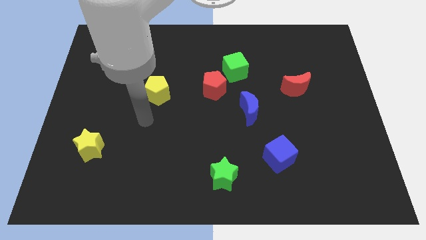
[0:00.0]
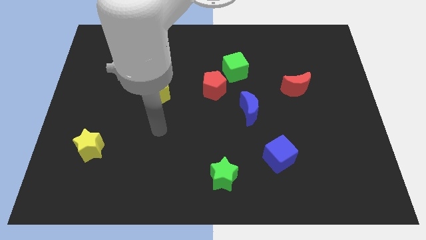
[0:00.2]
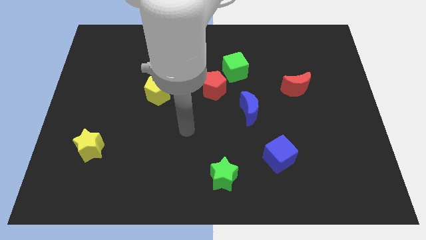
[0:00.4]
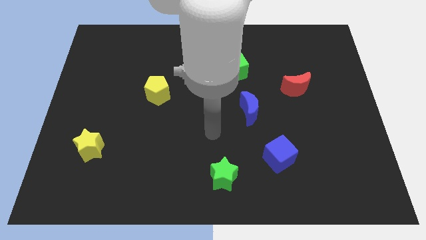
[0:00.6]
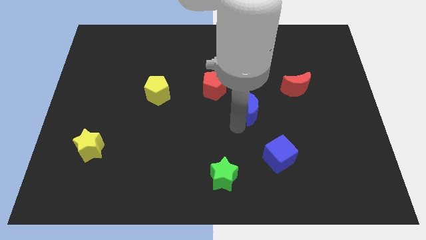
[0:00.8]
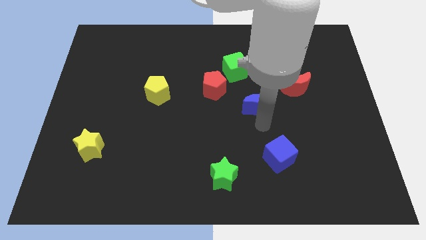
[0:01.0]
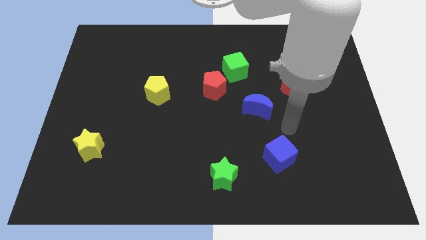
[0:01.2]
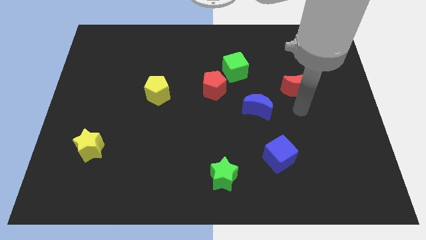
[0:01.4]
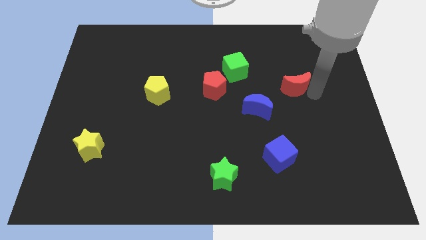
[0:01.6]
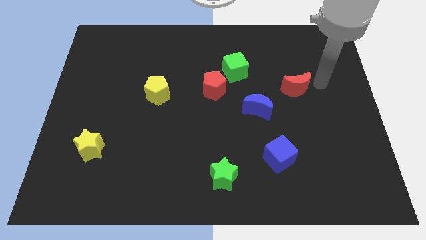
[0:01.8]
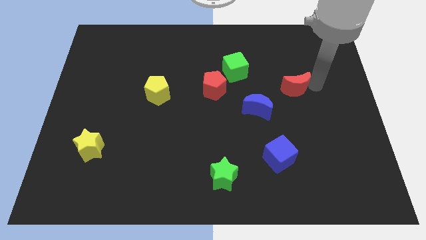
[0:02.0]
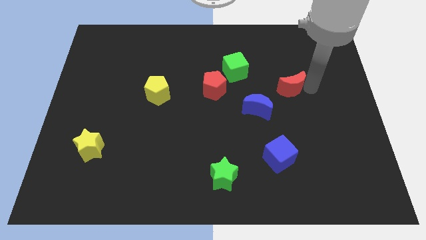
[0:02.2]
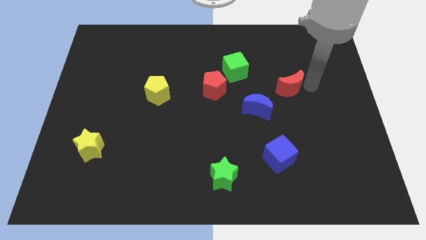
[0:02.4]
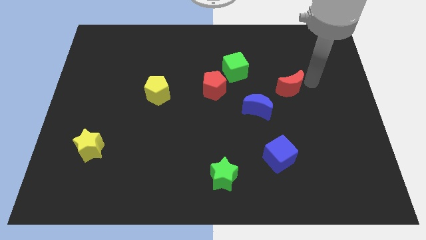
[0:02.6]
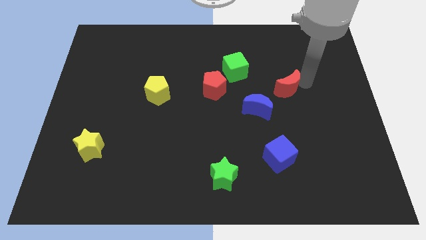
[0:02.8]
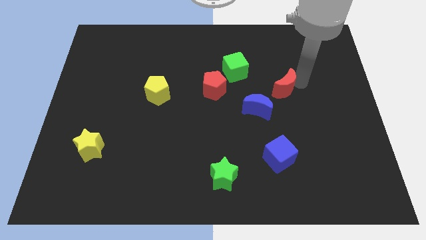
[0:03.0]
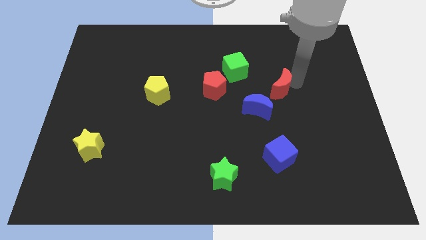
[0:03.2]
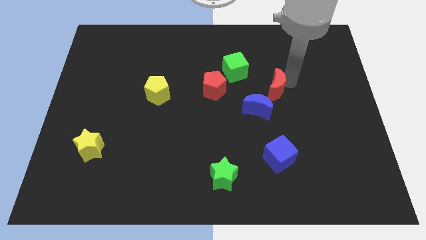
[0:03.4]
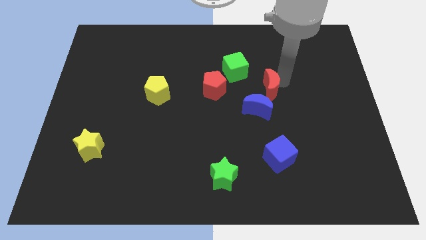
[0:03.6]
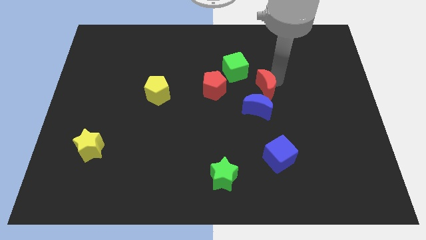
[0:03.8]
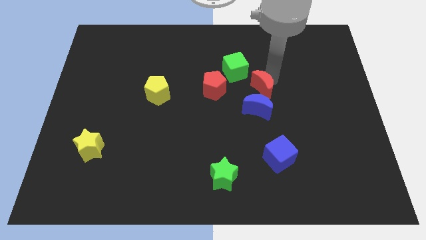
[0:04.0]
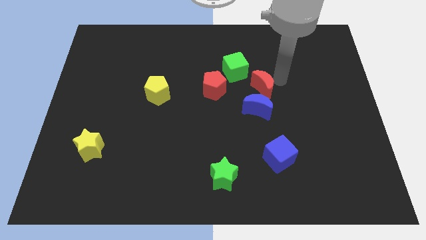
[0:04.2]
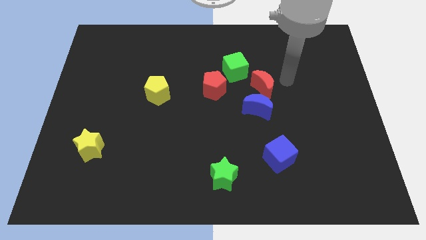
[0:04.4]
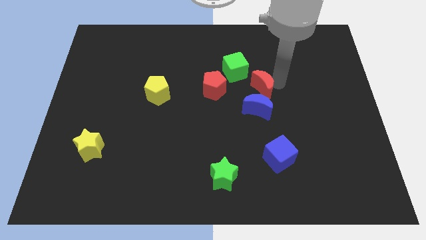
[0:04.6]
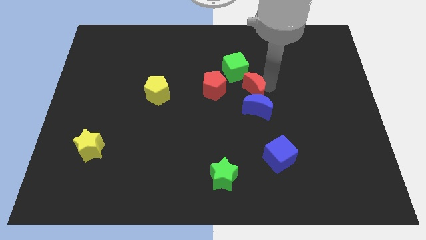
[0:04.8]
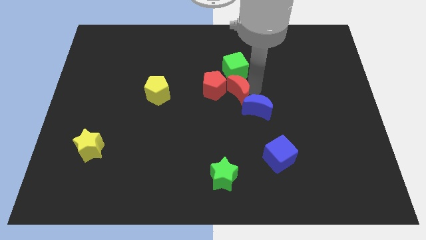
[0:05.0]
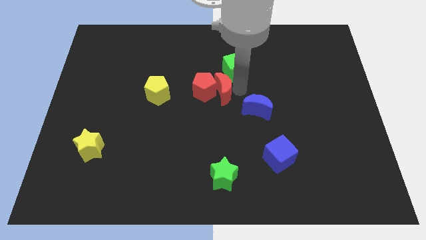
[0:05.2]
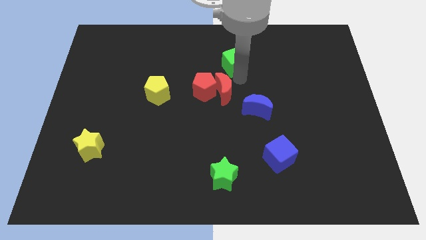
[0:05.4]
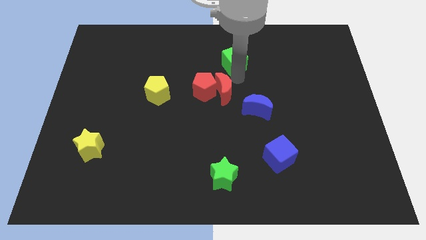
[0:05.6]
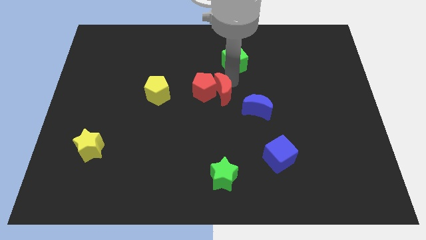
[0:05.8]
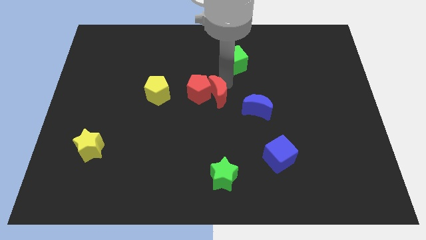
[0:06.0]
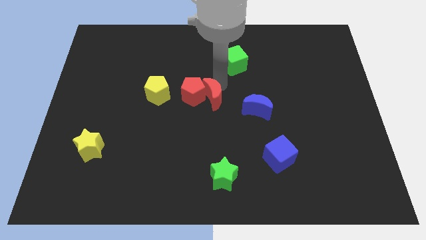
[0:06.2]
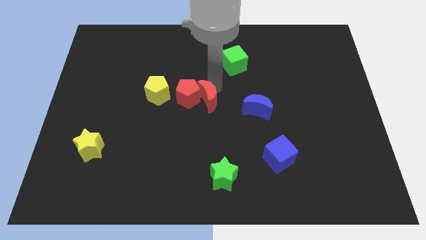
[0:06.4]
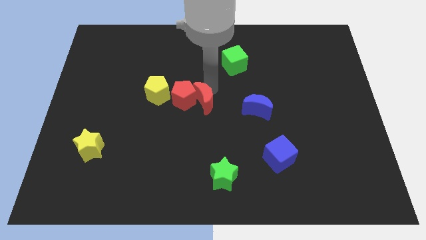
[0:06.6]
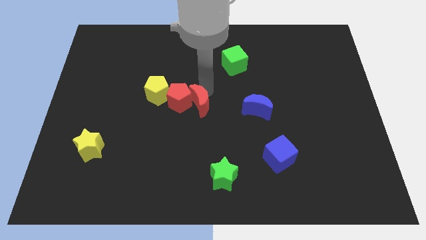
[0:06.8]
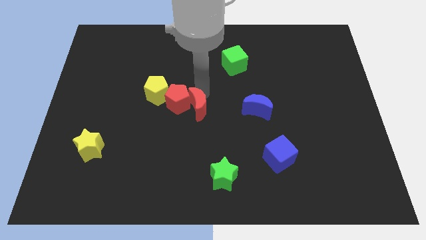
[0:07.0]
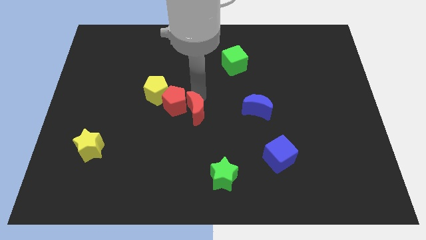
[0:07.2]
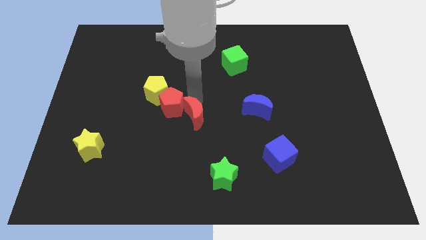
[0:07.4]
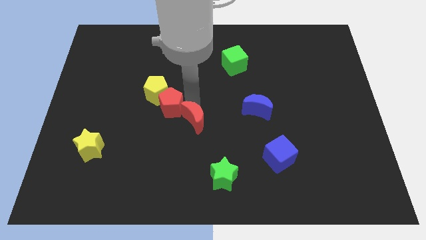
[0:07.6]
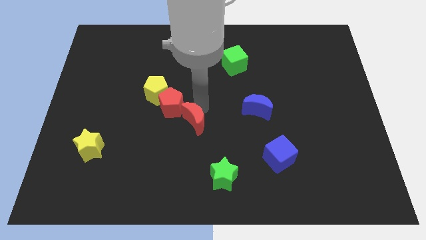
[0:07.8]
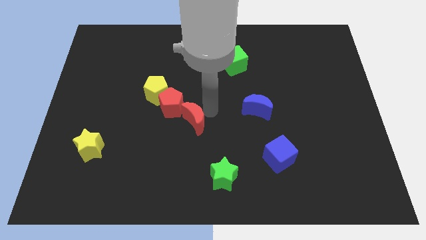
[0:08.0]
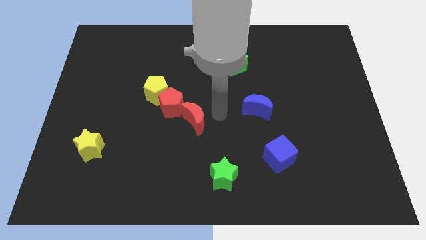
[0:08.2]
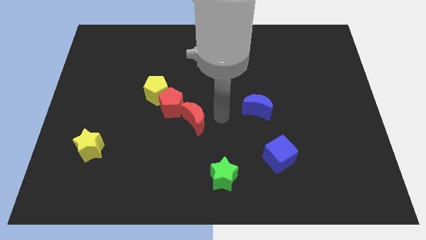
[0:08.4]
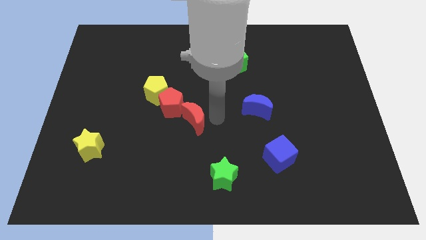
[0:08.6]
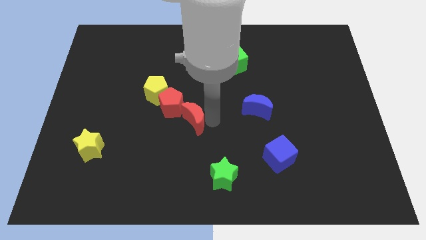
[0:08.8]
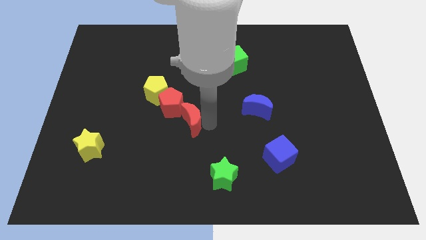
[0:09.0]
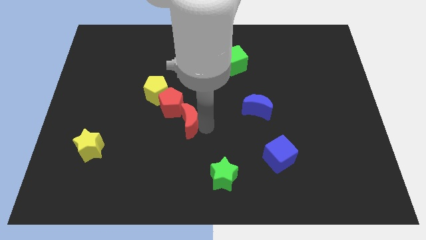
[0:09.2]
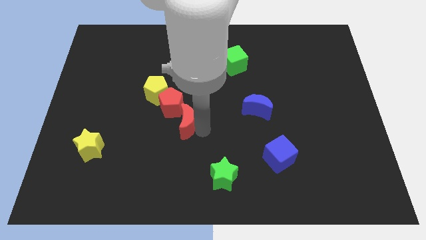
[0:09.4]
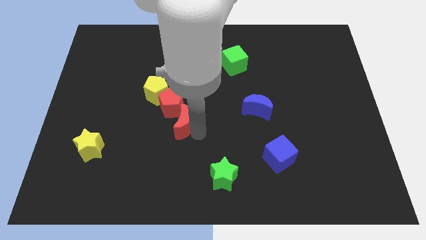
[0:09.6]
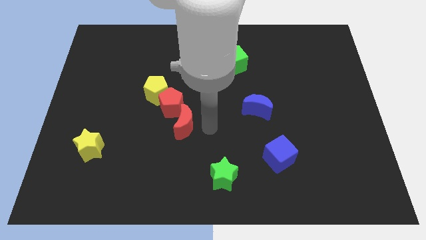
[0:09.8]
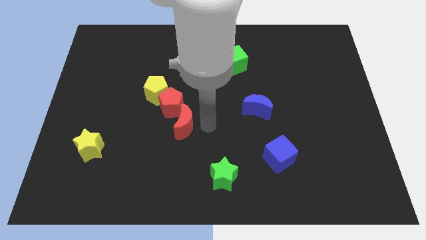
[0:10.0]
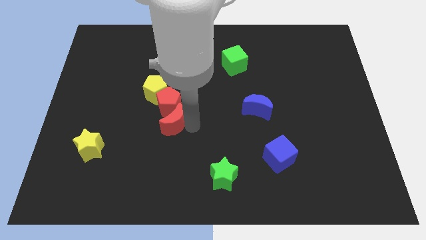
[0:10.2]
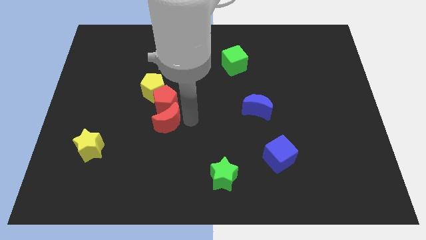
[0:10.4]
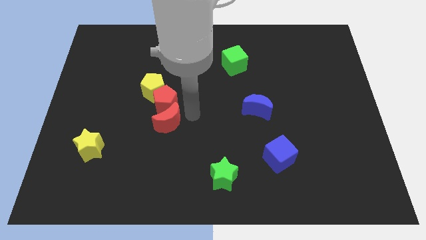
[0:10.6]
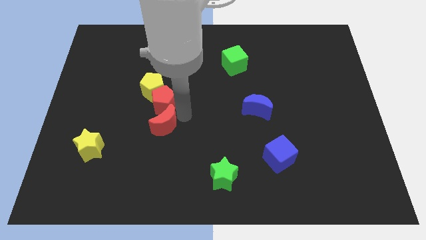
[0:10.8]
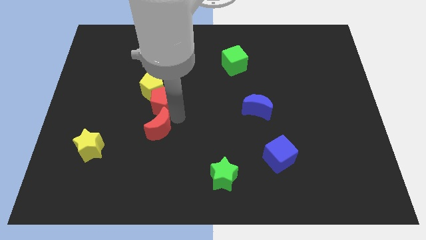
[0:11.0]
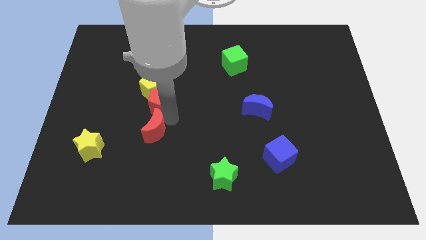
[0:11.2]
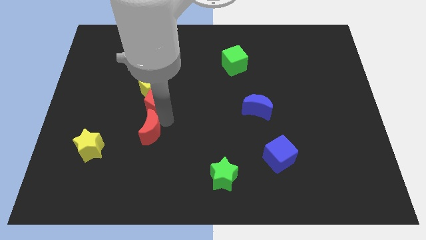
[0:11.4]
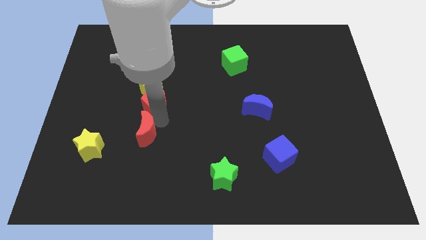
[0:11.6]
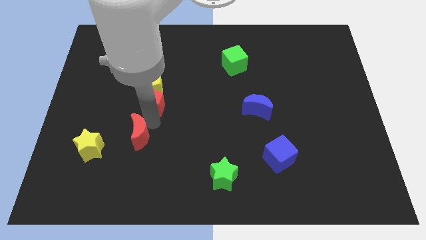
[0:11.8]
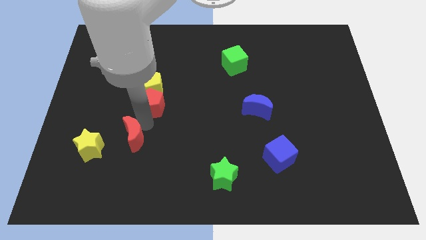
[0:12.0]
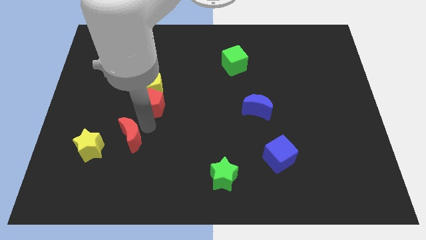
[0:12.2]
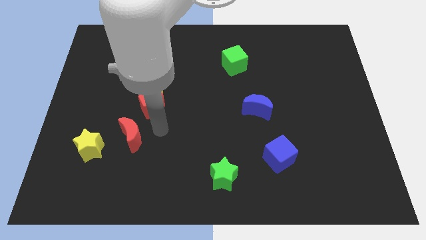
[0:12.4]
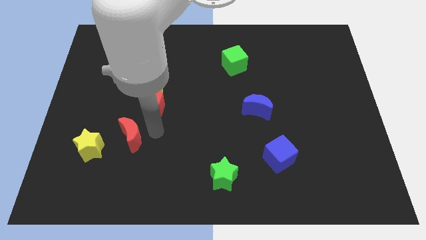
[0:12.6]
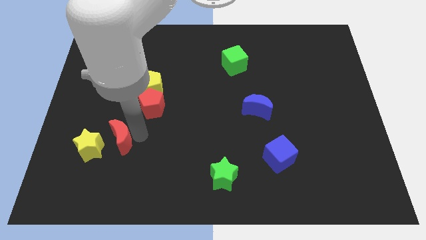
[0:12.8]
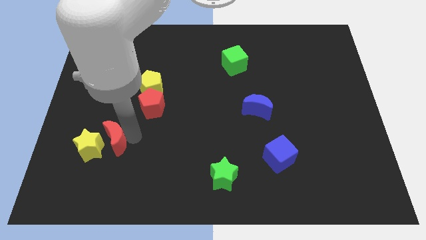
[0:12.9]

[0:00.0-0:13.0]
move the red moon to the yellow star

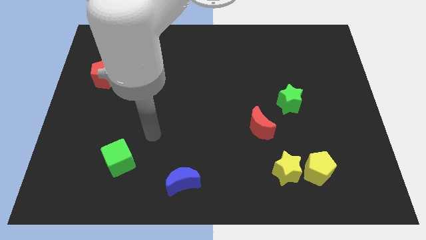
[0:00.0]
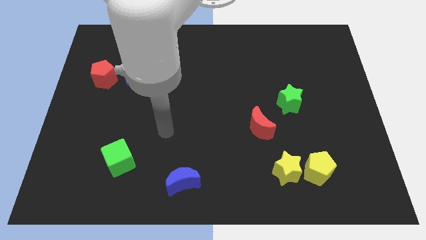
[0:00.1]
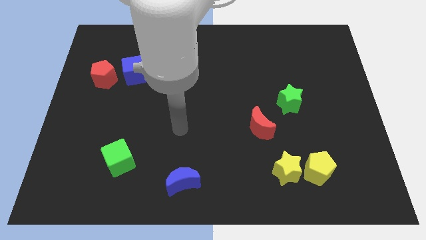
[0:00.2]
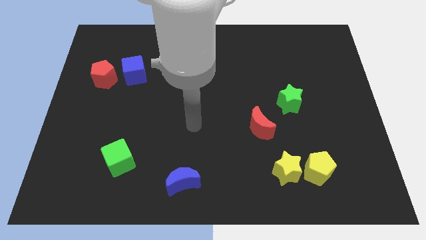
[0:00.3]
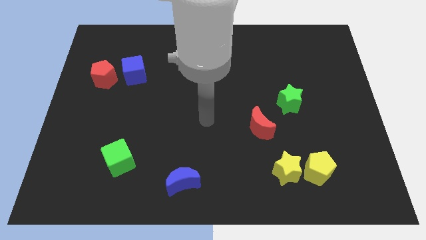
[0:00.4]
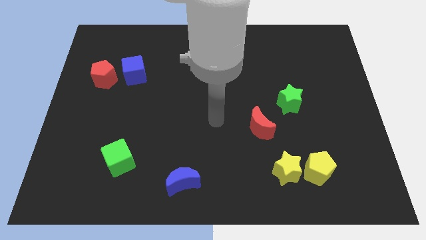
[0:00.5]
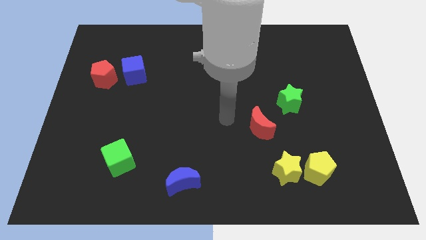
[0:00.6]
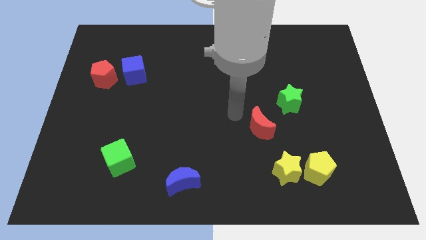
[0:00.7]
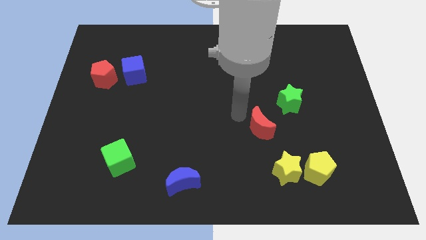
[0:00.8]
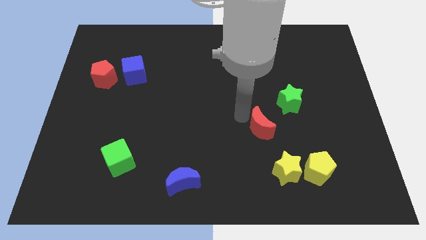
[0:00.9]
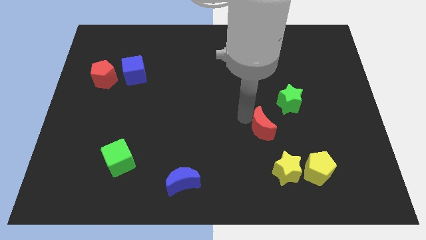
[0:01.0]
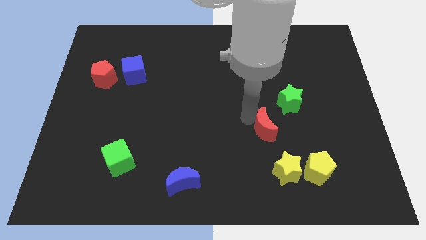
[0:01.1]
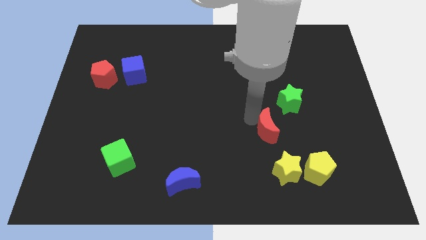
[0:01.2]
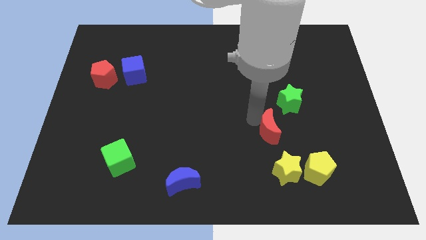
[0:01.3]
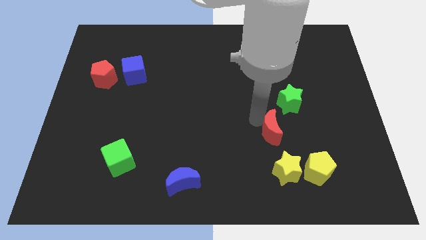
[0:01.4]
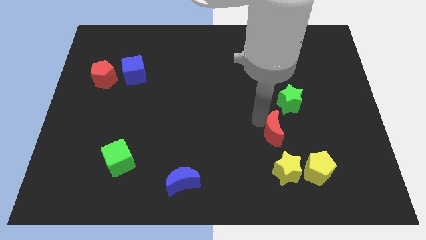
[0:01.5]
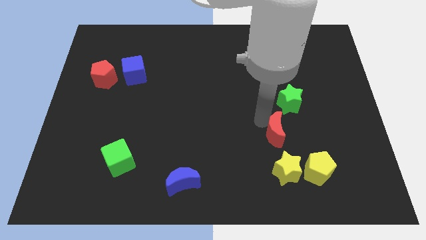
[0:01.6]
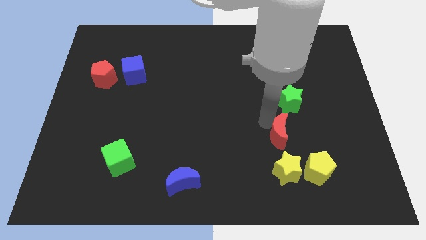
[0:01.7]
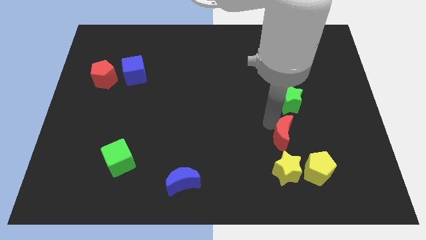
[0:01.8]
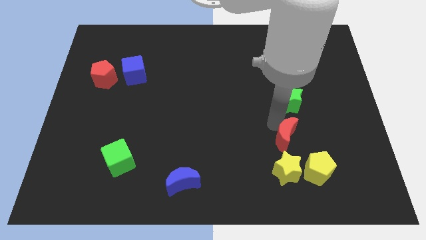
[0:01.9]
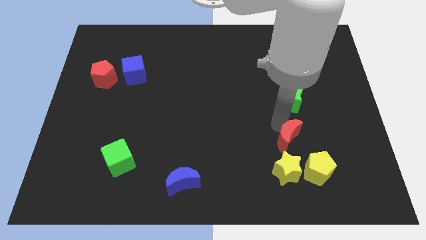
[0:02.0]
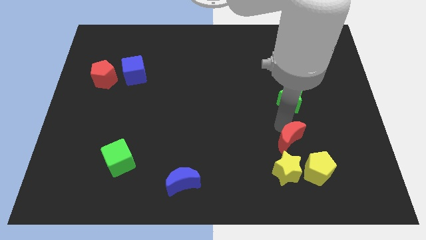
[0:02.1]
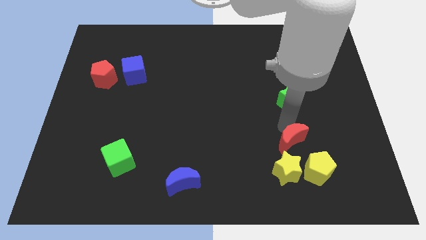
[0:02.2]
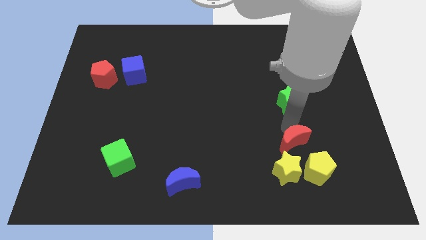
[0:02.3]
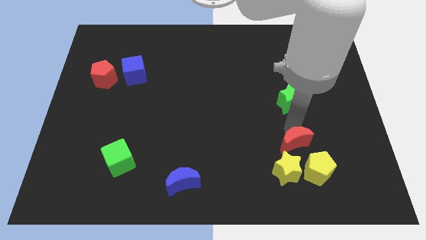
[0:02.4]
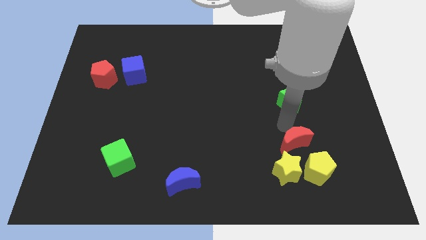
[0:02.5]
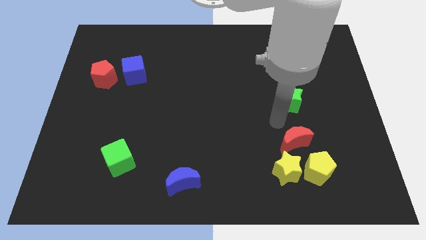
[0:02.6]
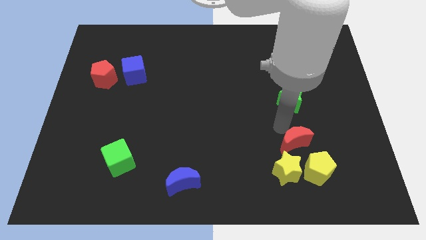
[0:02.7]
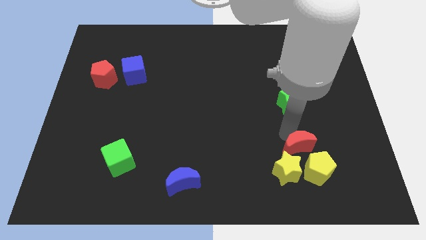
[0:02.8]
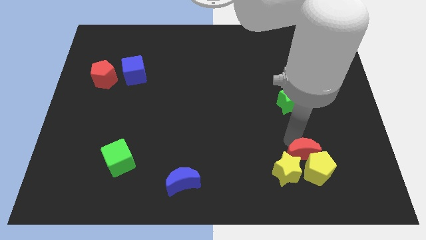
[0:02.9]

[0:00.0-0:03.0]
slide the red moon close to the yellow pentagon
